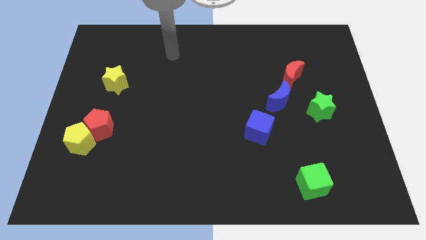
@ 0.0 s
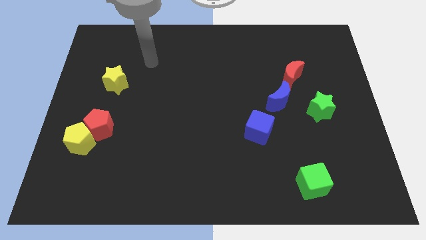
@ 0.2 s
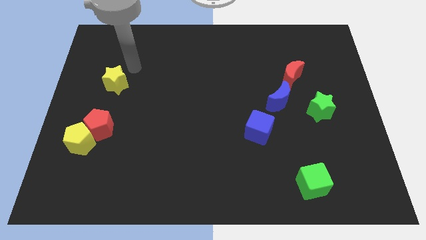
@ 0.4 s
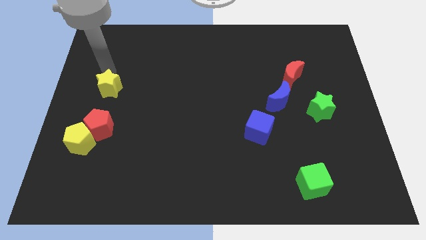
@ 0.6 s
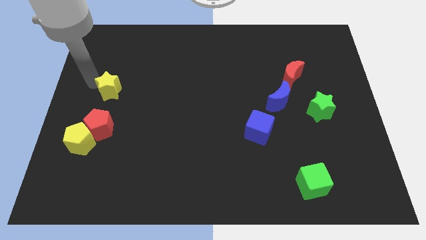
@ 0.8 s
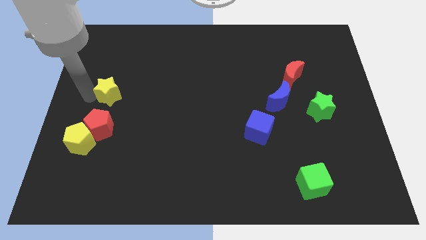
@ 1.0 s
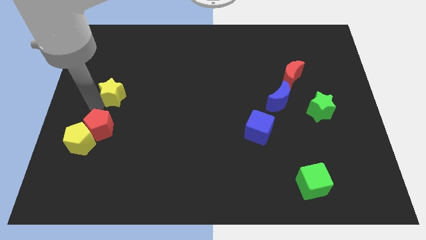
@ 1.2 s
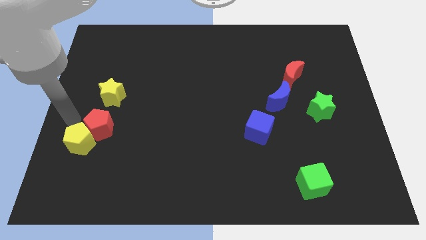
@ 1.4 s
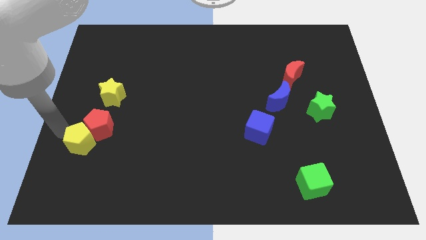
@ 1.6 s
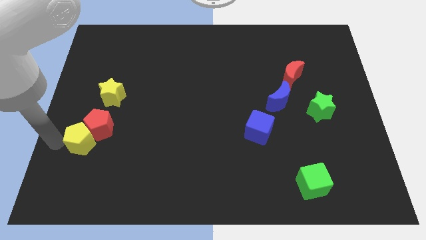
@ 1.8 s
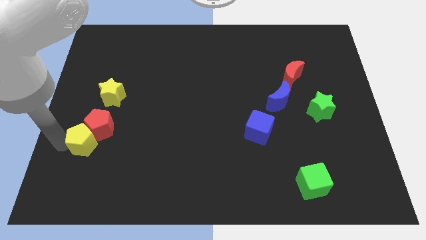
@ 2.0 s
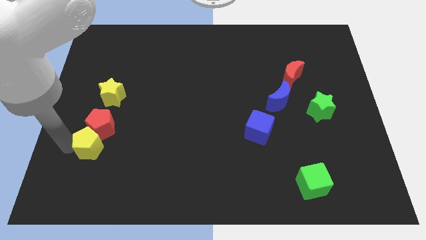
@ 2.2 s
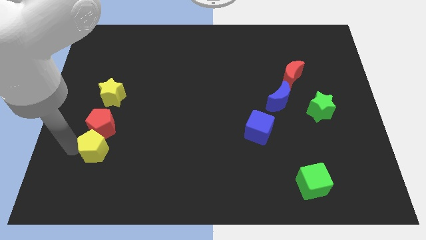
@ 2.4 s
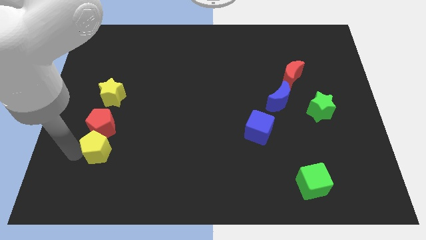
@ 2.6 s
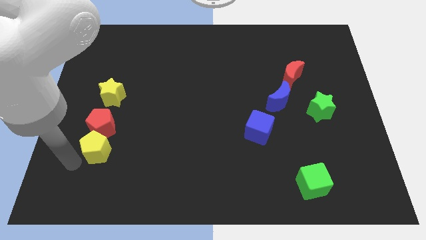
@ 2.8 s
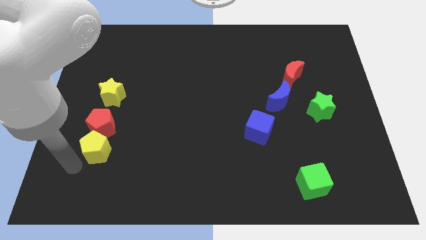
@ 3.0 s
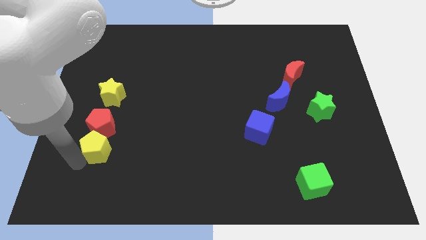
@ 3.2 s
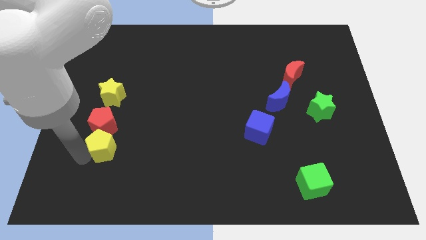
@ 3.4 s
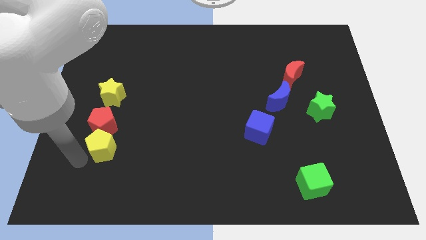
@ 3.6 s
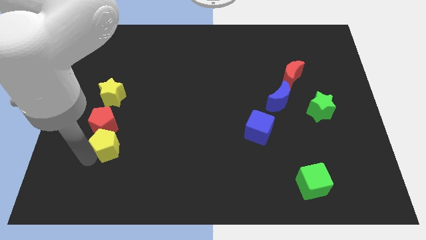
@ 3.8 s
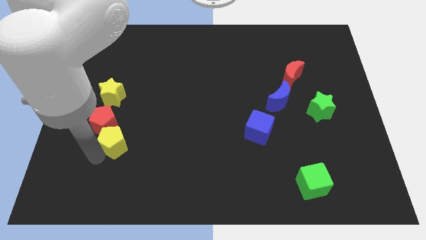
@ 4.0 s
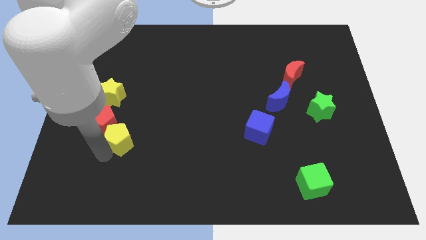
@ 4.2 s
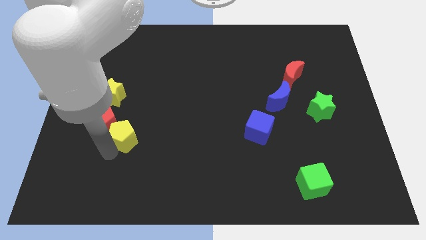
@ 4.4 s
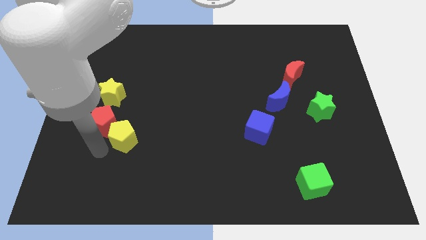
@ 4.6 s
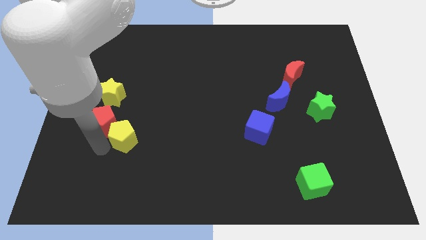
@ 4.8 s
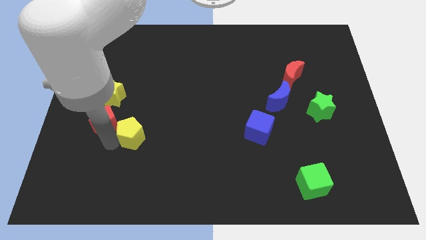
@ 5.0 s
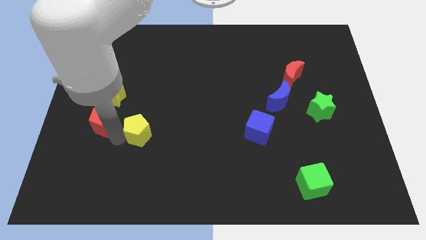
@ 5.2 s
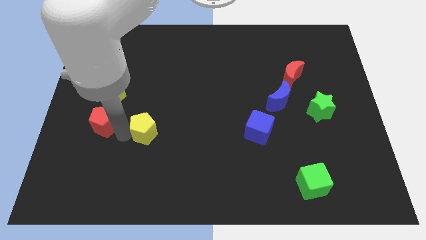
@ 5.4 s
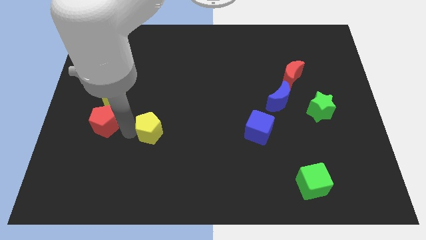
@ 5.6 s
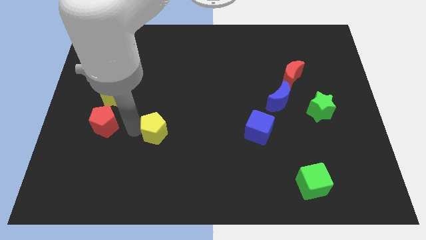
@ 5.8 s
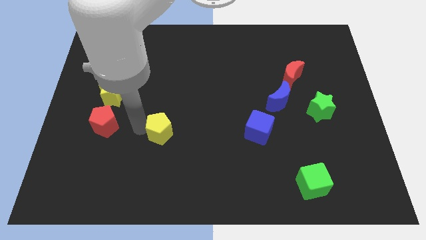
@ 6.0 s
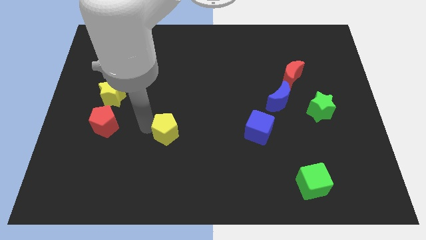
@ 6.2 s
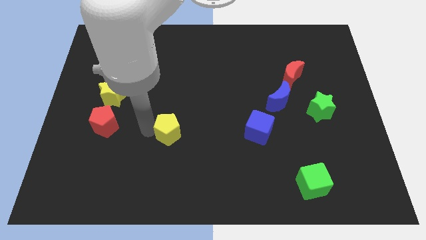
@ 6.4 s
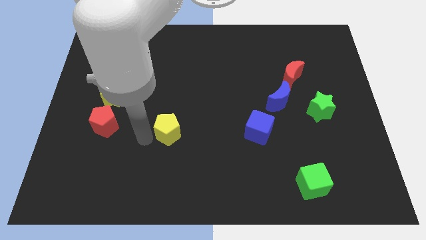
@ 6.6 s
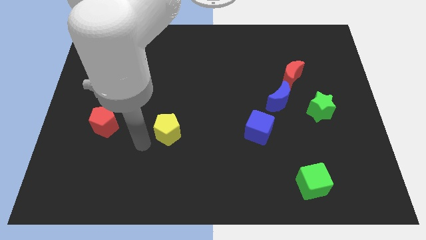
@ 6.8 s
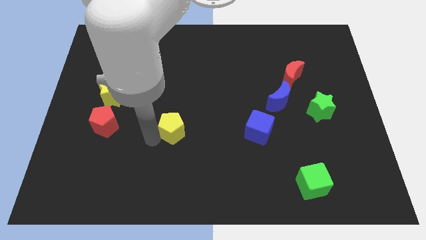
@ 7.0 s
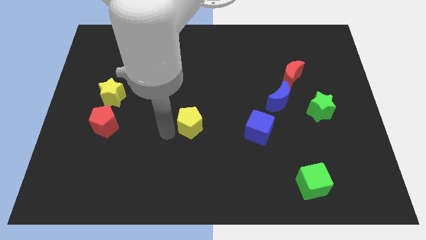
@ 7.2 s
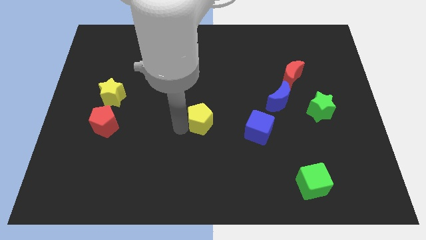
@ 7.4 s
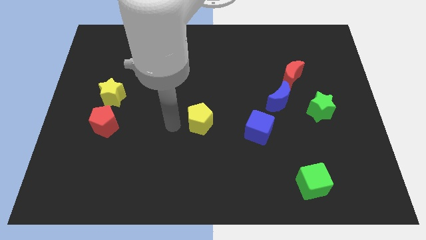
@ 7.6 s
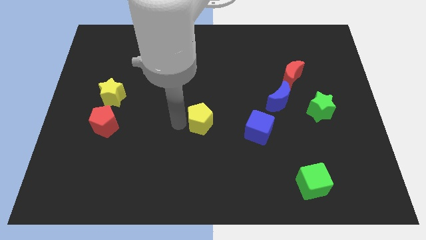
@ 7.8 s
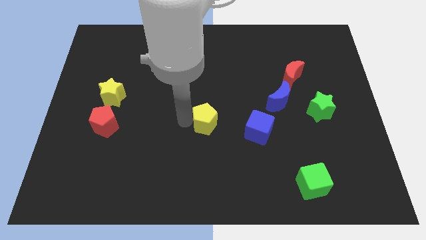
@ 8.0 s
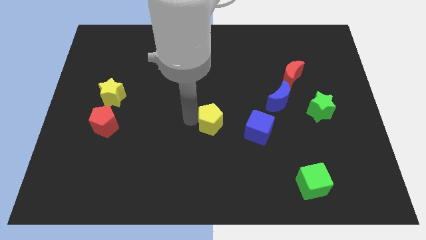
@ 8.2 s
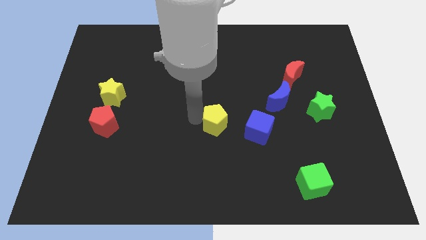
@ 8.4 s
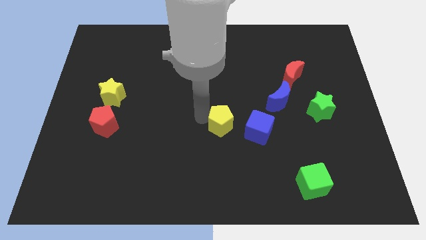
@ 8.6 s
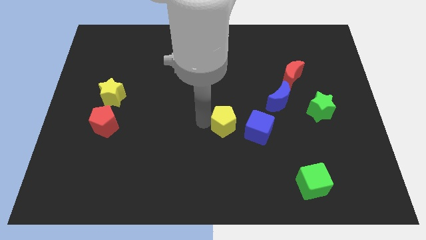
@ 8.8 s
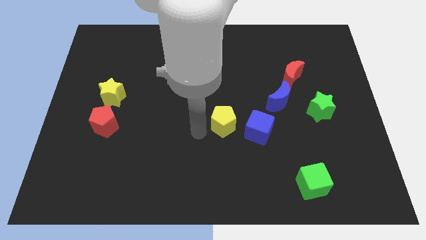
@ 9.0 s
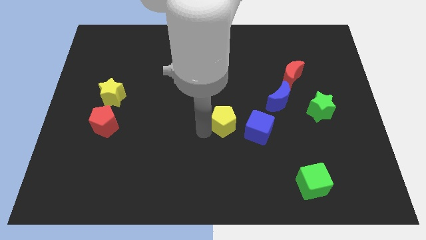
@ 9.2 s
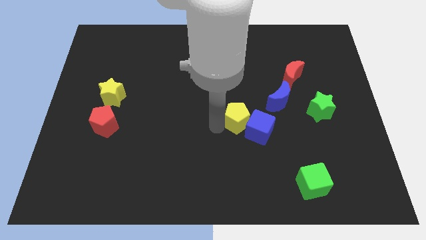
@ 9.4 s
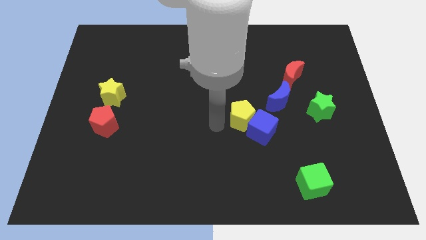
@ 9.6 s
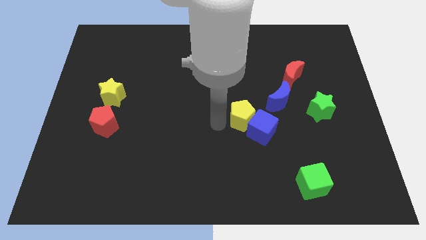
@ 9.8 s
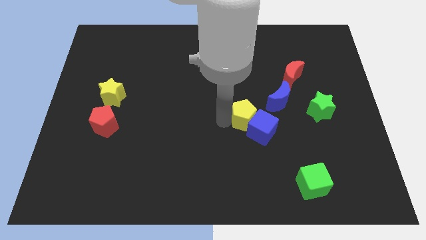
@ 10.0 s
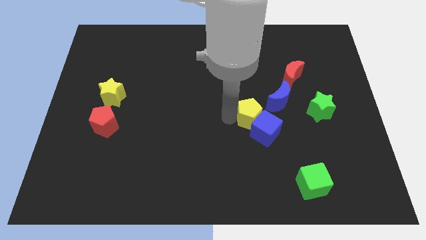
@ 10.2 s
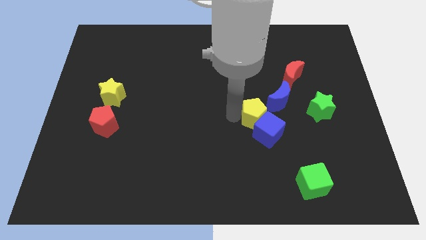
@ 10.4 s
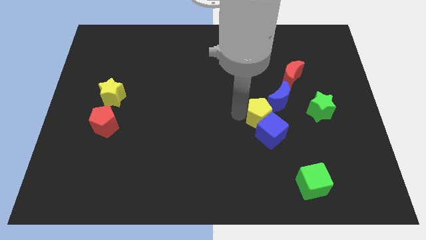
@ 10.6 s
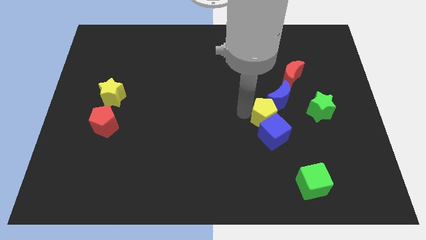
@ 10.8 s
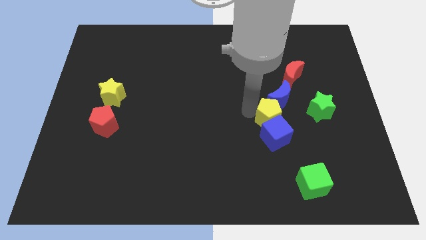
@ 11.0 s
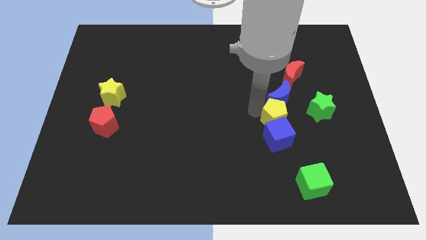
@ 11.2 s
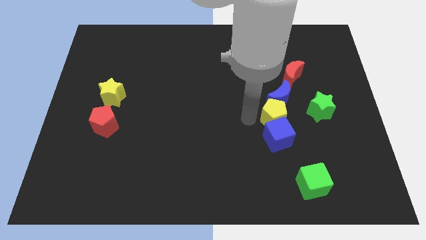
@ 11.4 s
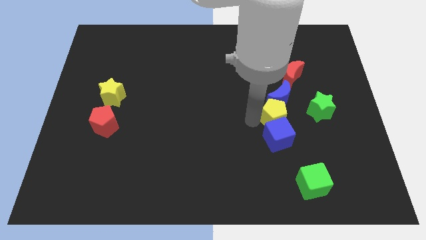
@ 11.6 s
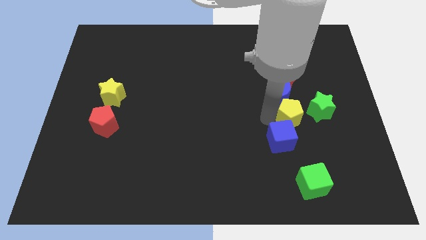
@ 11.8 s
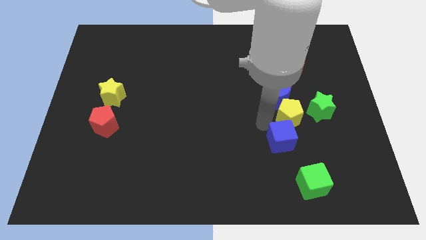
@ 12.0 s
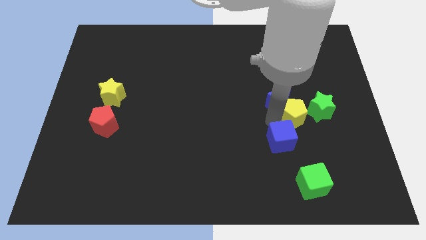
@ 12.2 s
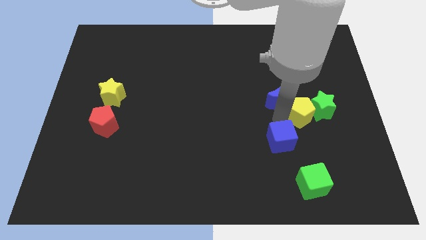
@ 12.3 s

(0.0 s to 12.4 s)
move the yellow pentagon to the green star
